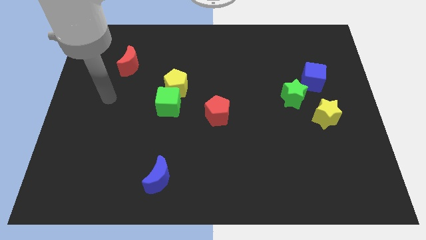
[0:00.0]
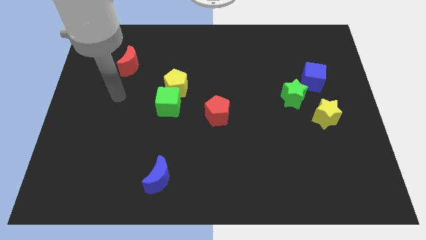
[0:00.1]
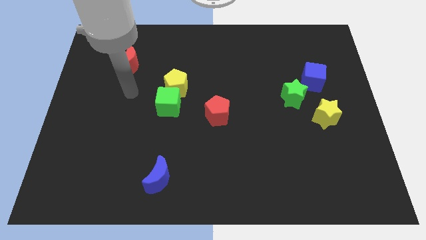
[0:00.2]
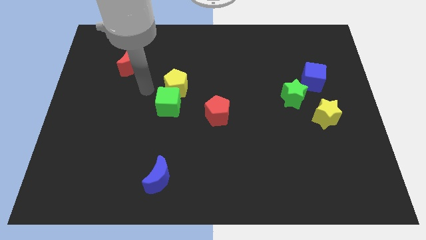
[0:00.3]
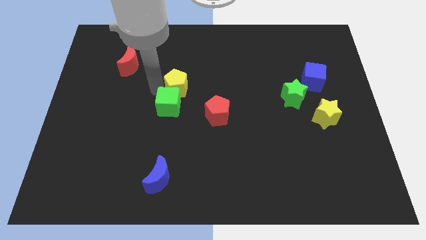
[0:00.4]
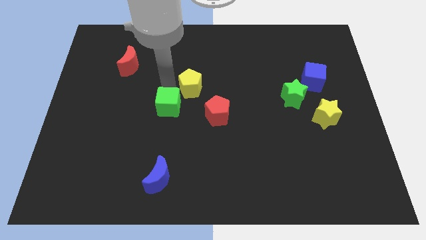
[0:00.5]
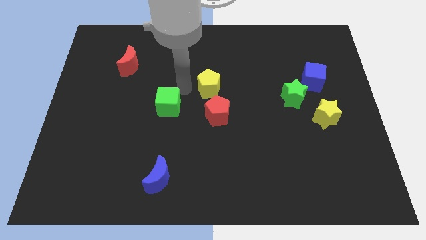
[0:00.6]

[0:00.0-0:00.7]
separate the green cube from the yellow pentagon

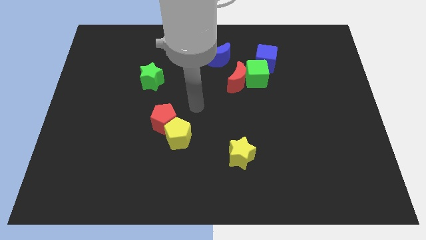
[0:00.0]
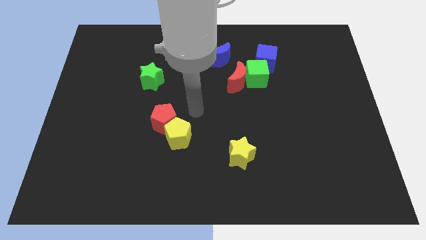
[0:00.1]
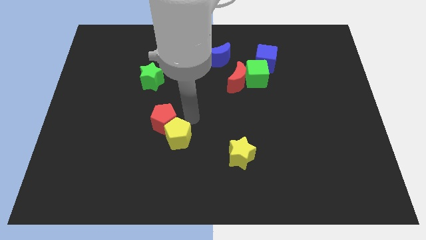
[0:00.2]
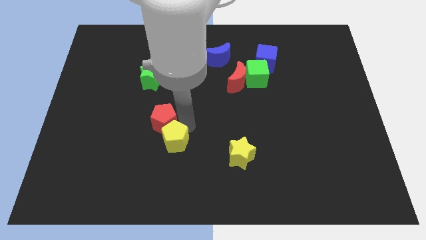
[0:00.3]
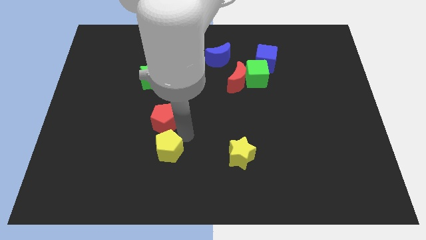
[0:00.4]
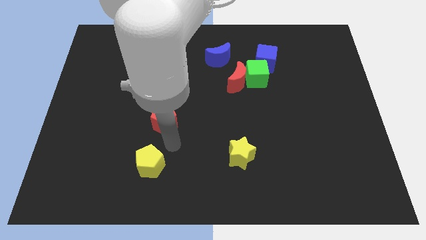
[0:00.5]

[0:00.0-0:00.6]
move the red pentagon away from the yellow pentagon

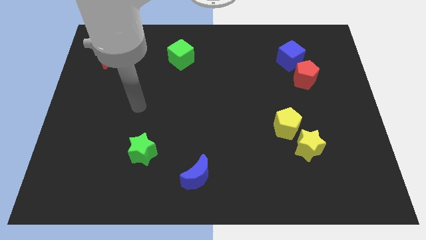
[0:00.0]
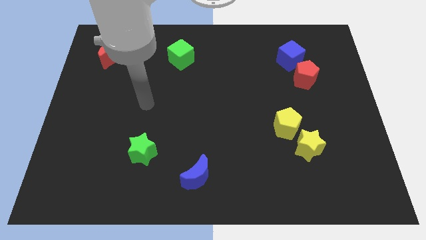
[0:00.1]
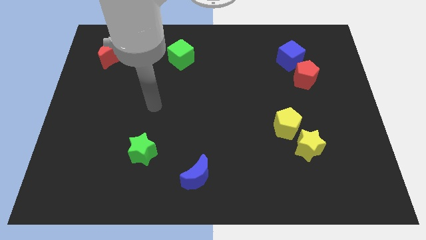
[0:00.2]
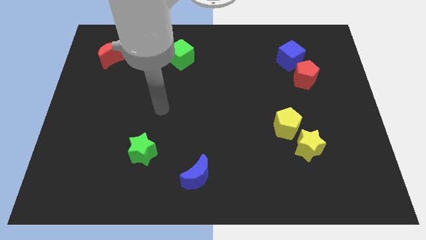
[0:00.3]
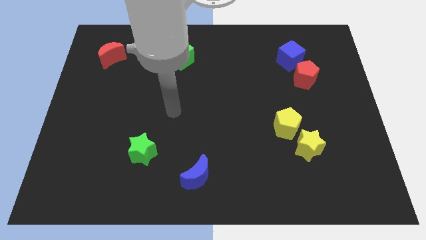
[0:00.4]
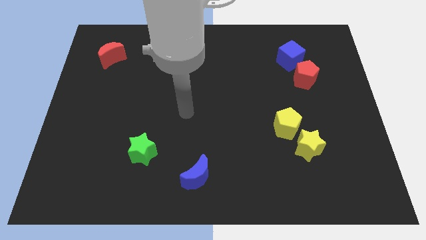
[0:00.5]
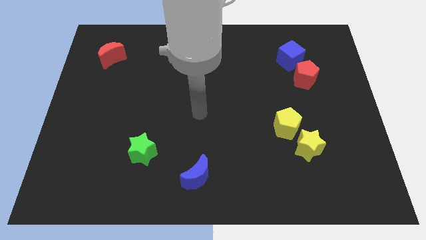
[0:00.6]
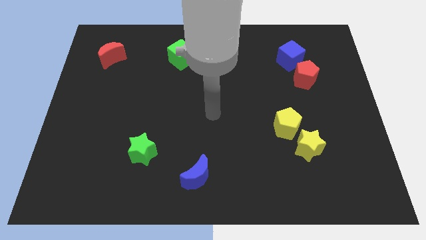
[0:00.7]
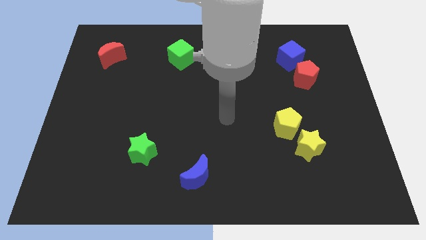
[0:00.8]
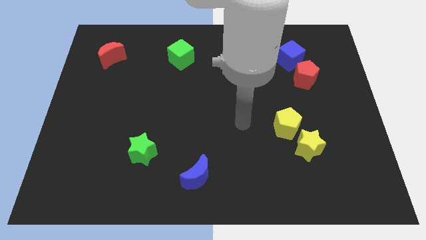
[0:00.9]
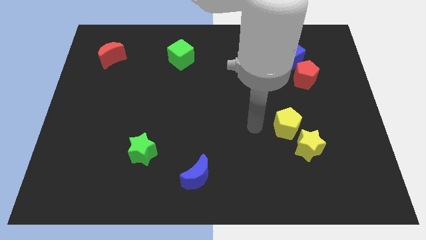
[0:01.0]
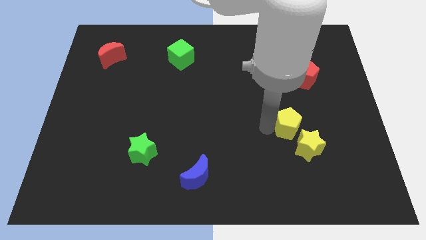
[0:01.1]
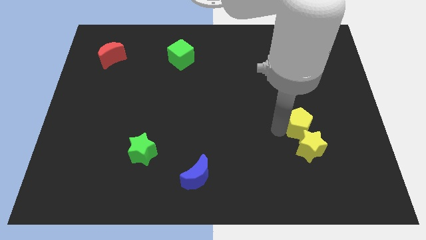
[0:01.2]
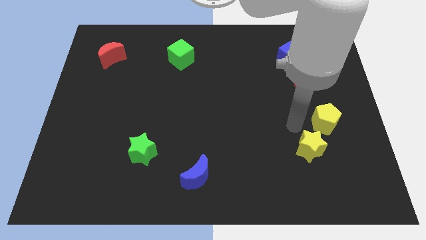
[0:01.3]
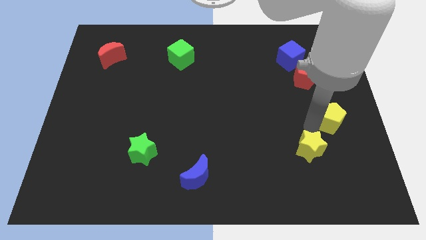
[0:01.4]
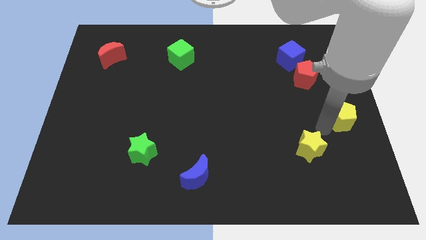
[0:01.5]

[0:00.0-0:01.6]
move the yellow star away from the yellow pentagon

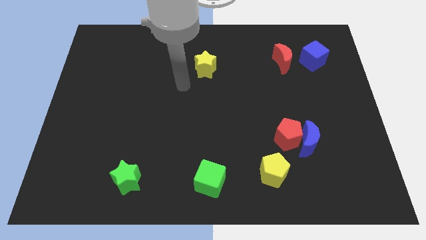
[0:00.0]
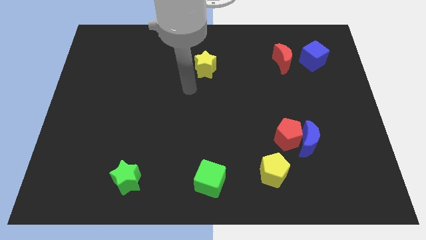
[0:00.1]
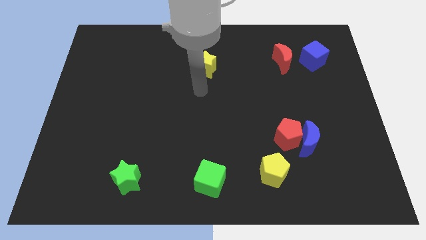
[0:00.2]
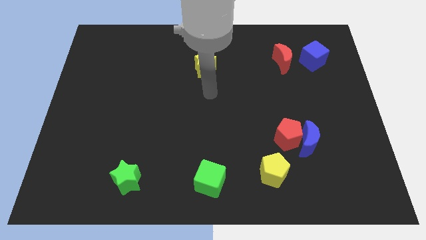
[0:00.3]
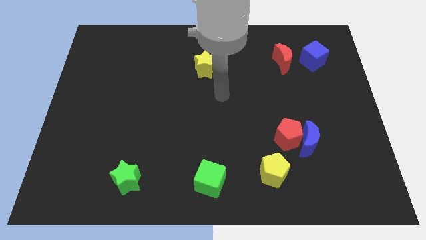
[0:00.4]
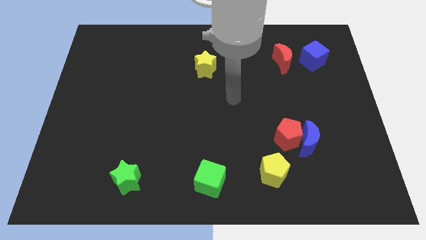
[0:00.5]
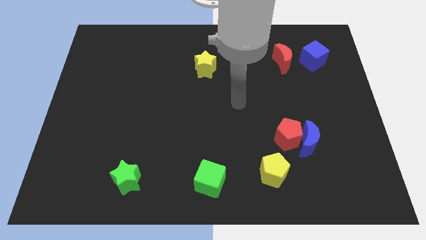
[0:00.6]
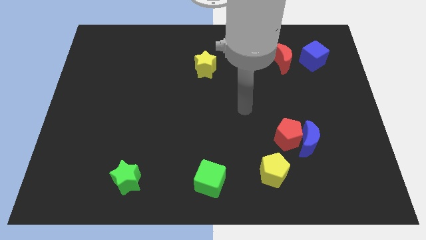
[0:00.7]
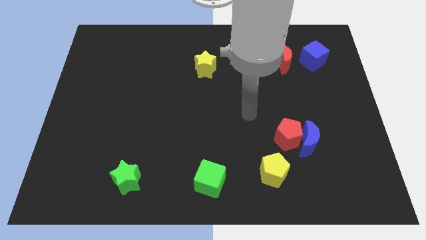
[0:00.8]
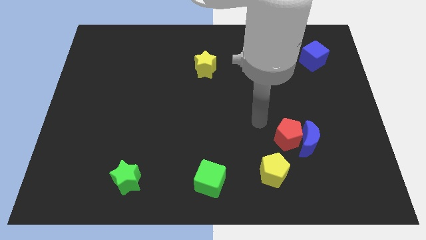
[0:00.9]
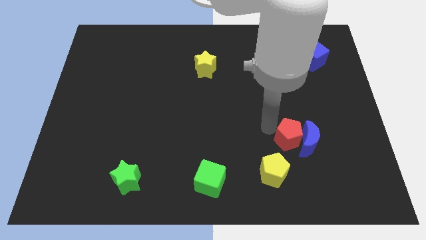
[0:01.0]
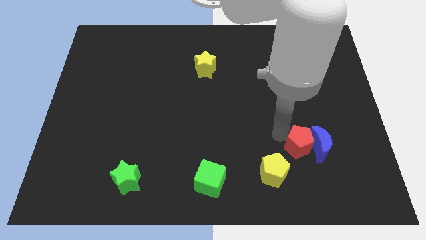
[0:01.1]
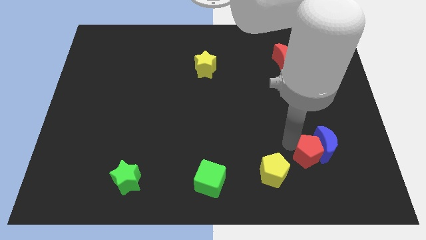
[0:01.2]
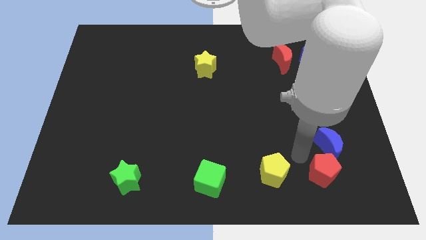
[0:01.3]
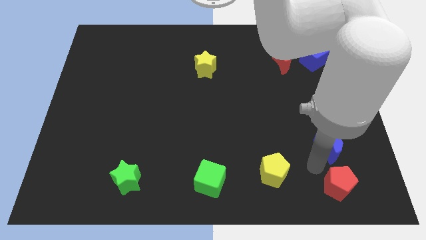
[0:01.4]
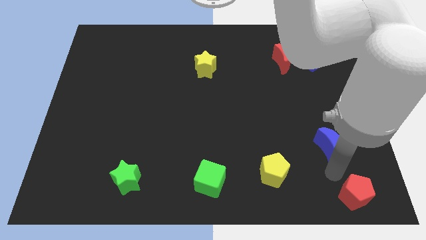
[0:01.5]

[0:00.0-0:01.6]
move the blue moon away from the red pentagon

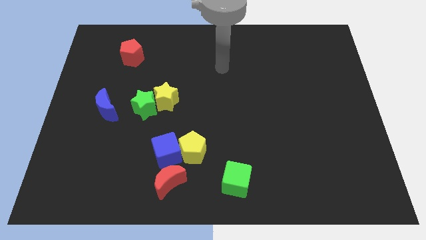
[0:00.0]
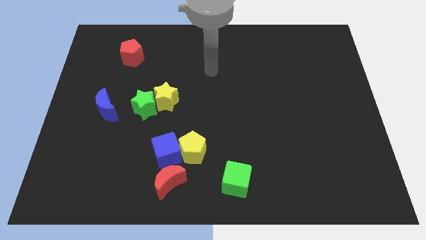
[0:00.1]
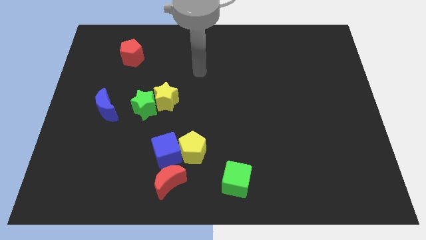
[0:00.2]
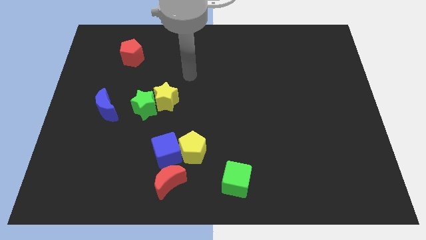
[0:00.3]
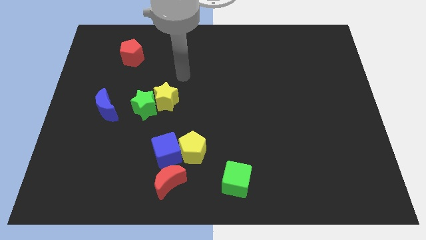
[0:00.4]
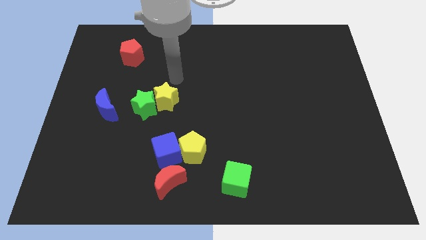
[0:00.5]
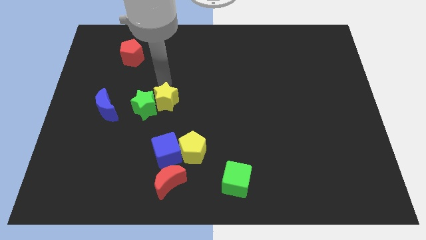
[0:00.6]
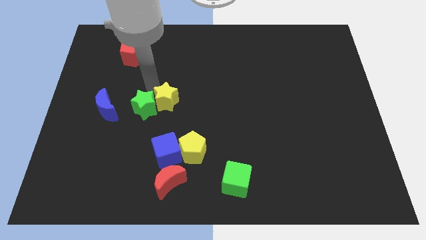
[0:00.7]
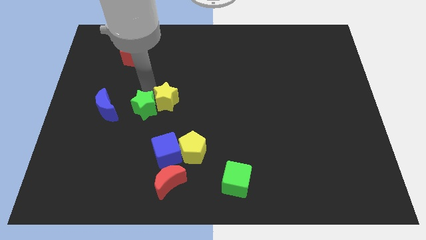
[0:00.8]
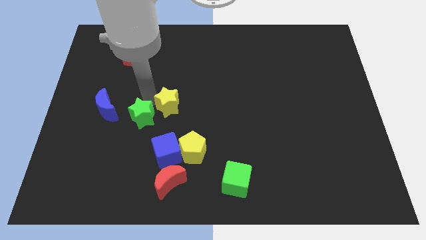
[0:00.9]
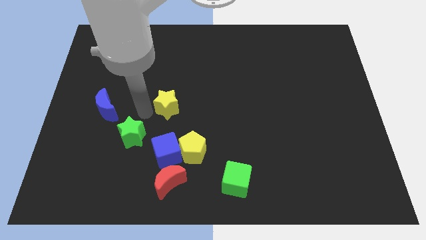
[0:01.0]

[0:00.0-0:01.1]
pull the yellow star apart from the green star

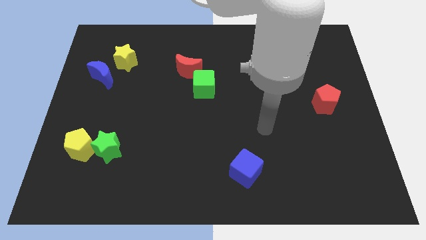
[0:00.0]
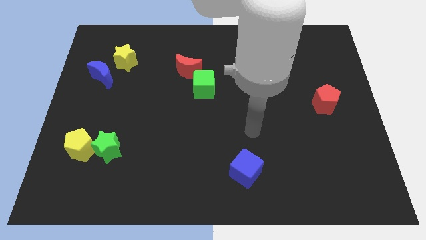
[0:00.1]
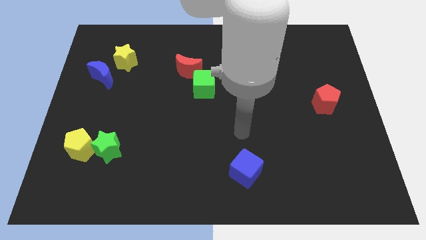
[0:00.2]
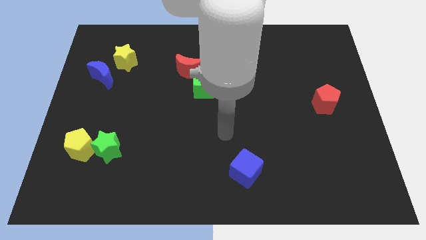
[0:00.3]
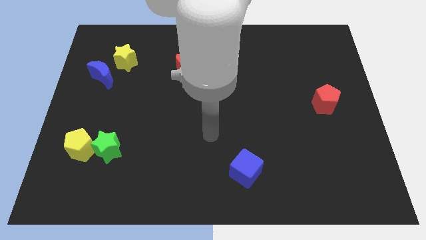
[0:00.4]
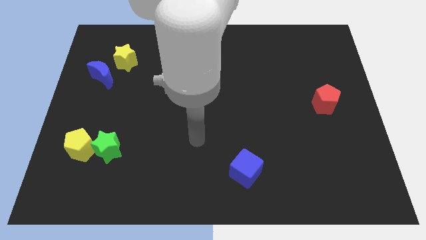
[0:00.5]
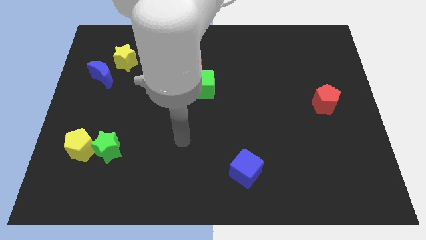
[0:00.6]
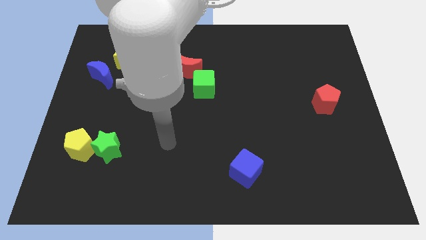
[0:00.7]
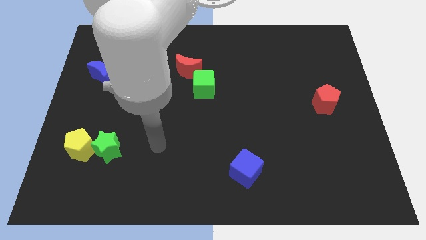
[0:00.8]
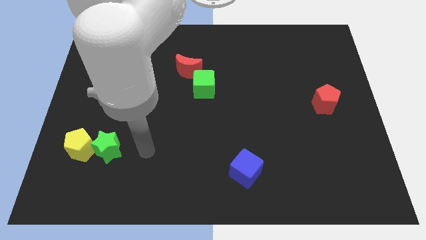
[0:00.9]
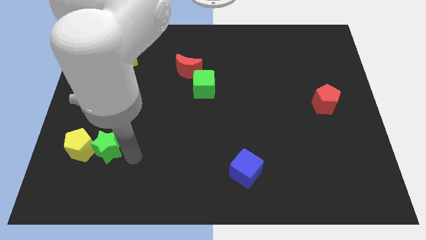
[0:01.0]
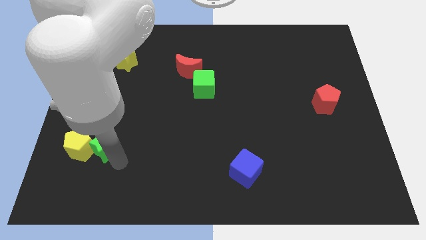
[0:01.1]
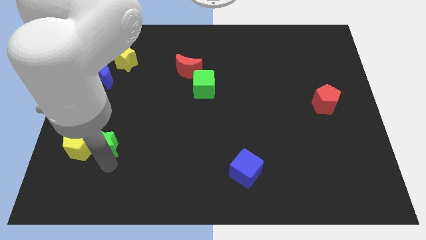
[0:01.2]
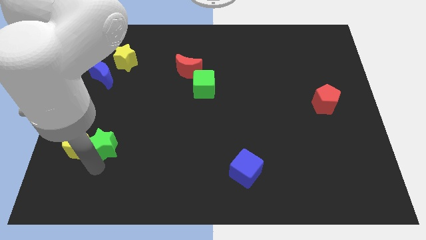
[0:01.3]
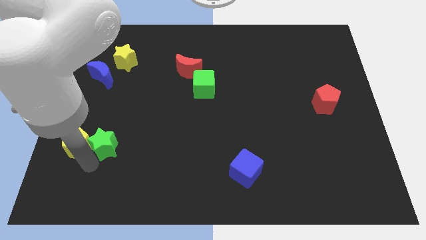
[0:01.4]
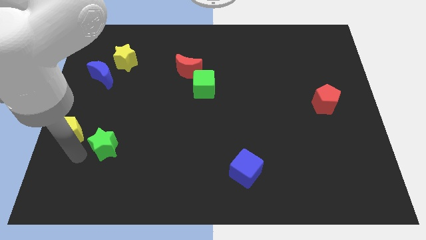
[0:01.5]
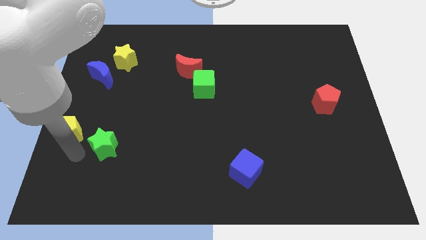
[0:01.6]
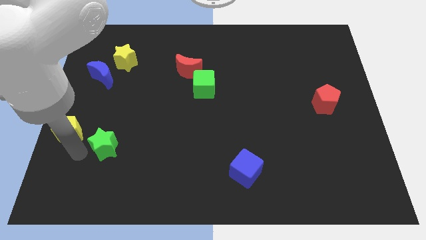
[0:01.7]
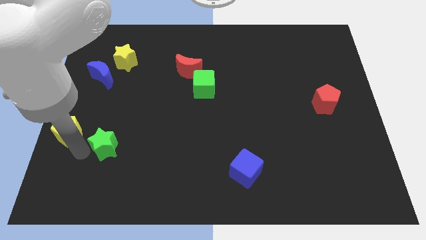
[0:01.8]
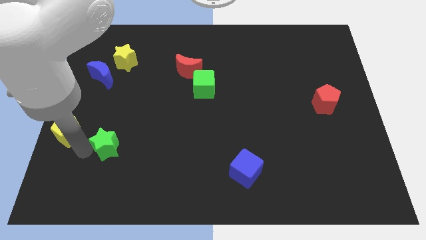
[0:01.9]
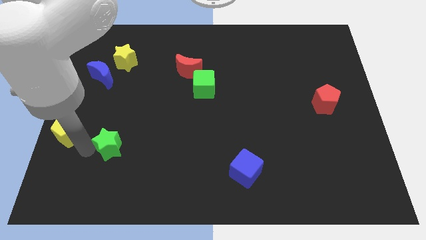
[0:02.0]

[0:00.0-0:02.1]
move the green star away from the yellow pentagon

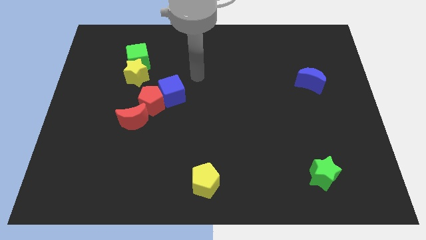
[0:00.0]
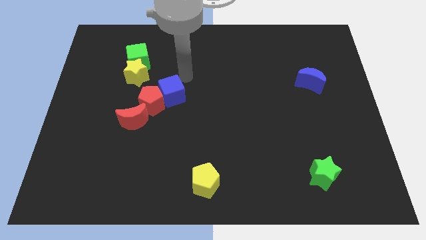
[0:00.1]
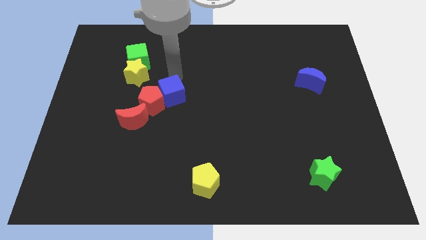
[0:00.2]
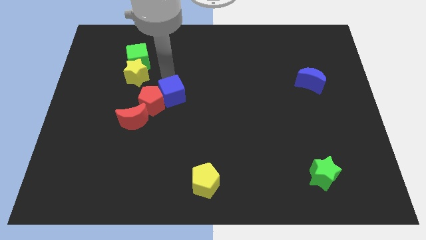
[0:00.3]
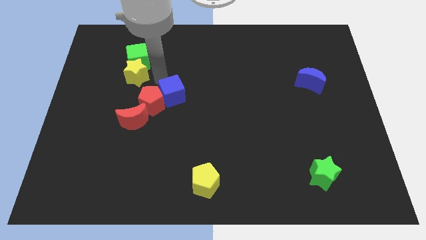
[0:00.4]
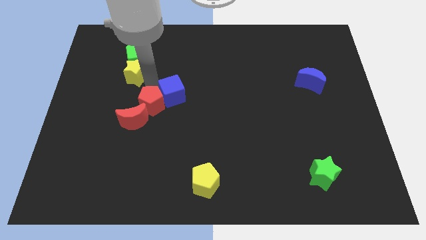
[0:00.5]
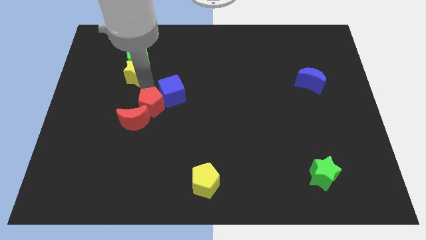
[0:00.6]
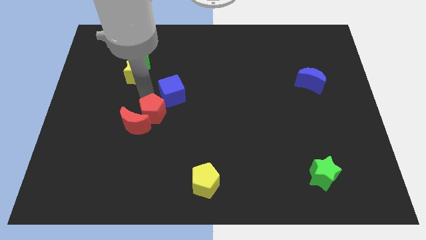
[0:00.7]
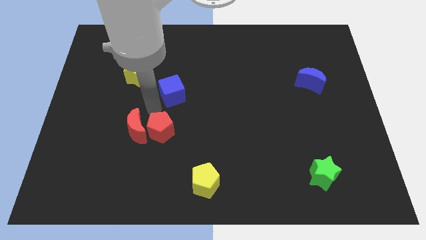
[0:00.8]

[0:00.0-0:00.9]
separate the blue cube from the red pentagon

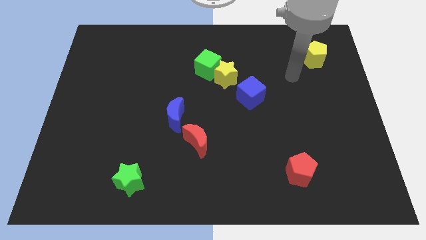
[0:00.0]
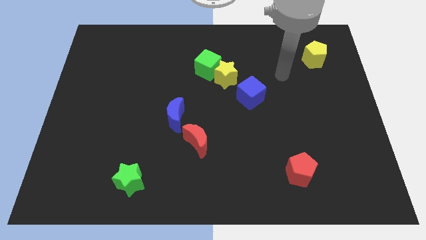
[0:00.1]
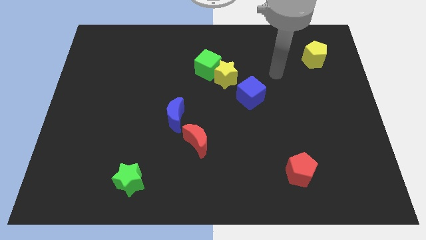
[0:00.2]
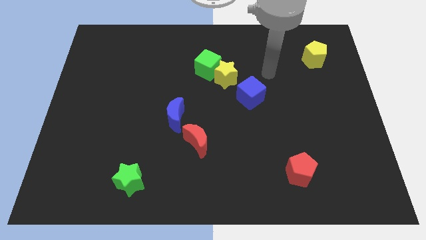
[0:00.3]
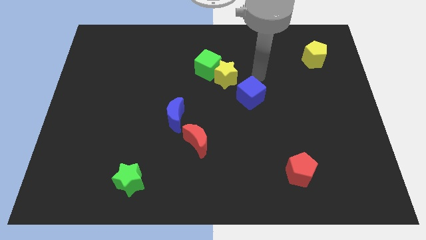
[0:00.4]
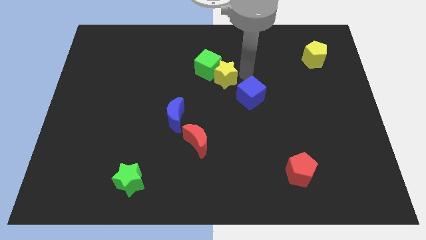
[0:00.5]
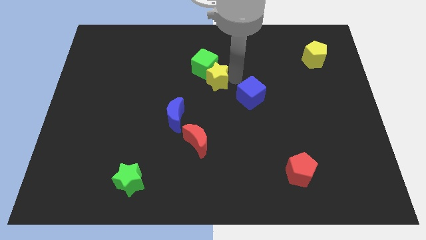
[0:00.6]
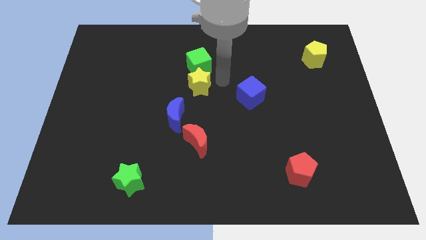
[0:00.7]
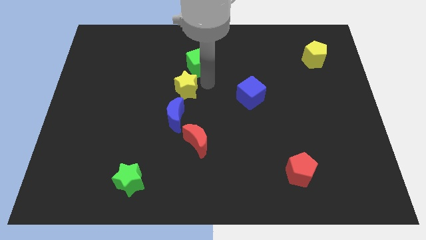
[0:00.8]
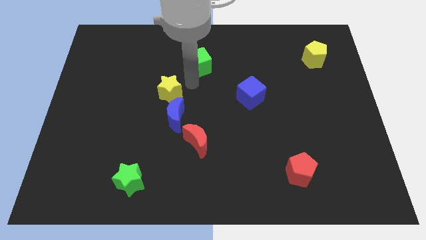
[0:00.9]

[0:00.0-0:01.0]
separate the green cube from the yellow star
